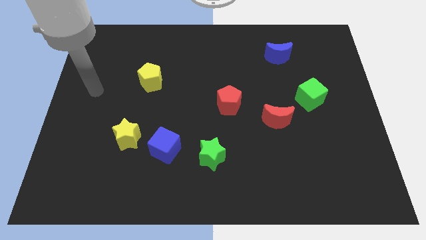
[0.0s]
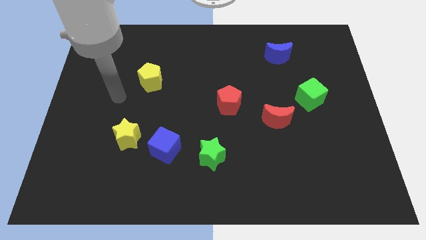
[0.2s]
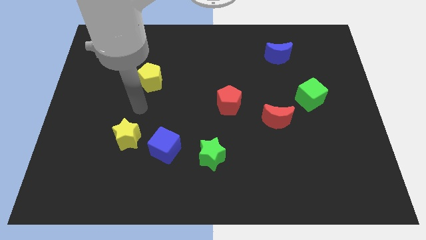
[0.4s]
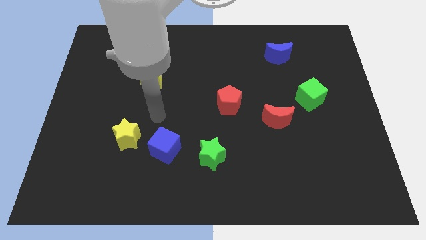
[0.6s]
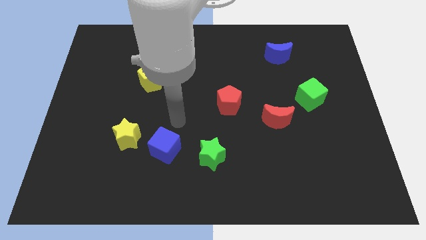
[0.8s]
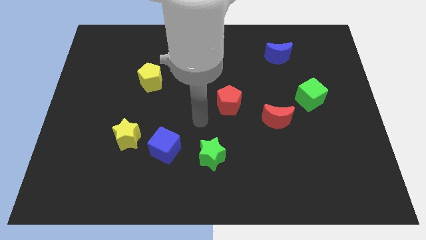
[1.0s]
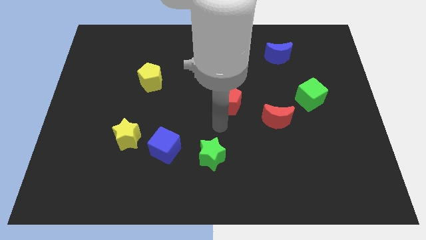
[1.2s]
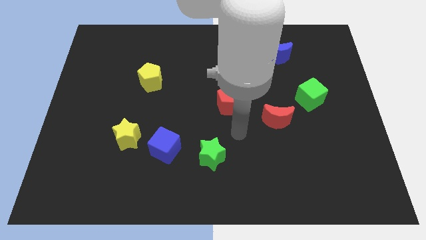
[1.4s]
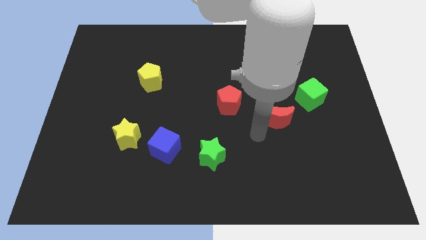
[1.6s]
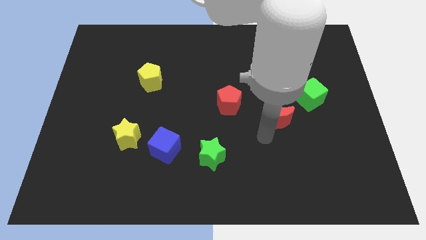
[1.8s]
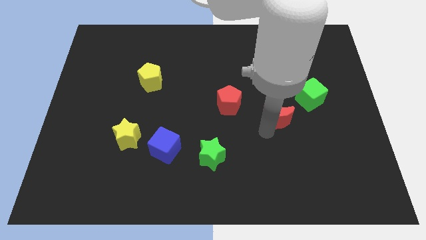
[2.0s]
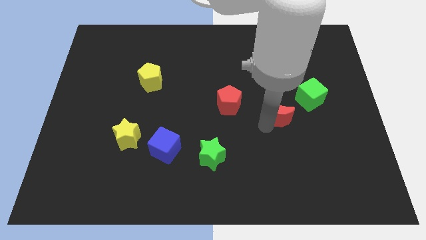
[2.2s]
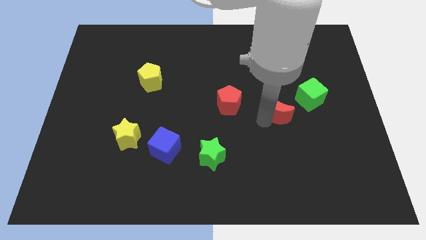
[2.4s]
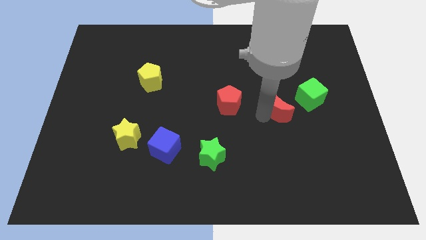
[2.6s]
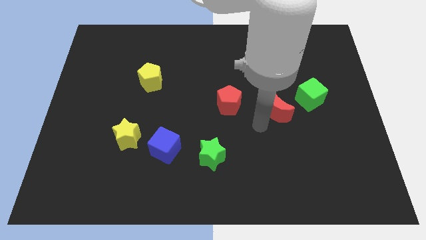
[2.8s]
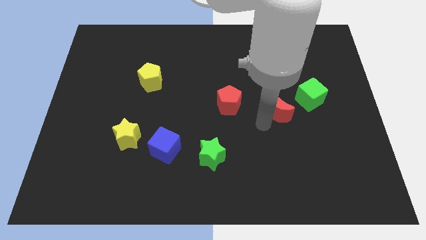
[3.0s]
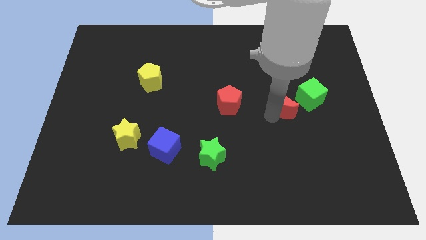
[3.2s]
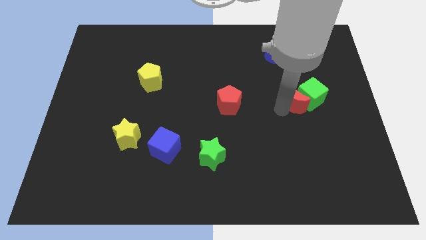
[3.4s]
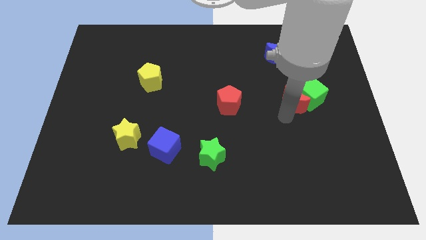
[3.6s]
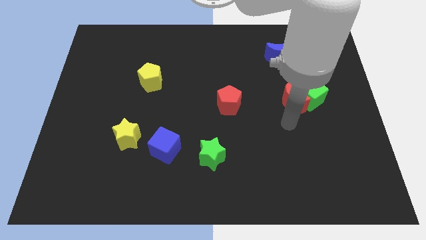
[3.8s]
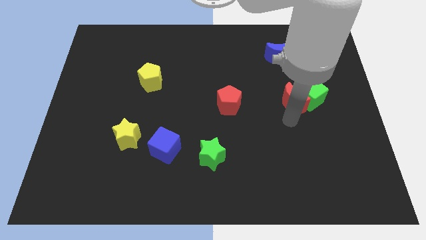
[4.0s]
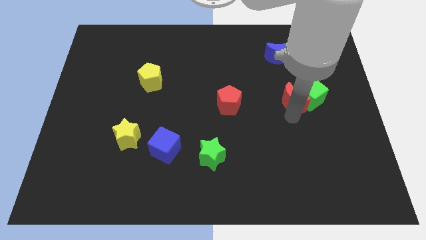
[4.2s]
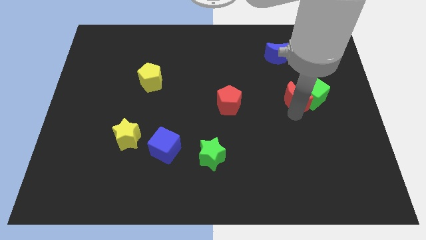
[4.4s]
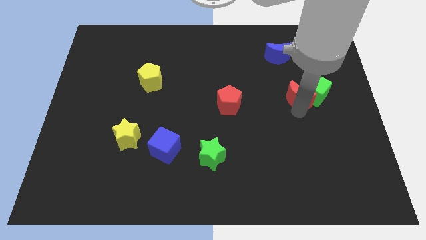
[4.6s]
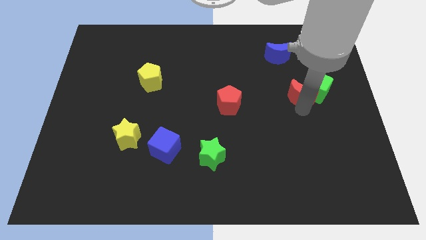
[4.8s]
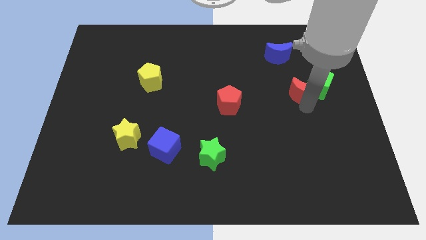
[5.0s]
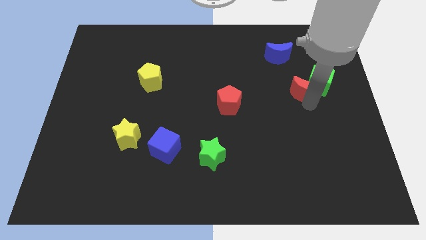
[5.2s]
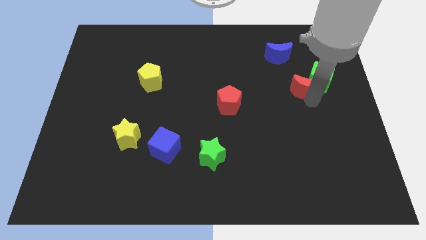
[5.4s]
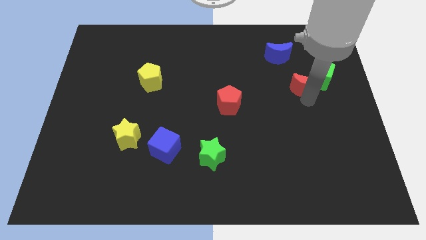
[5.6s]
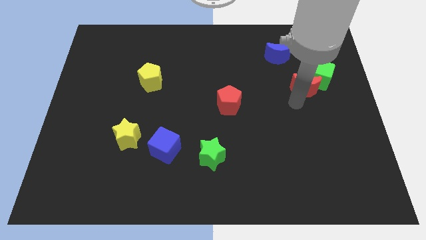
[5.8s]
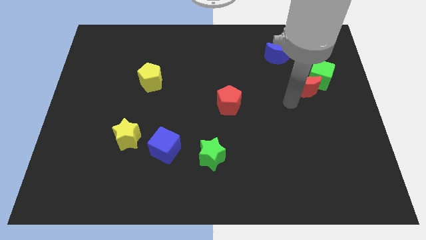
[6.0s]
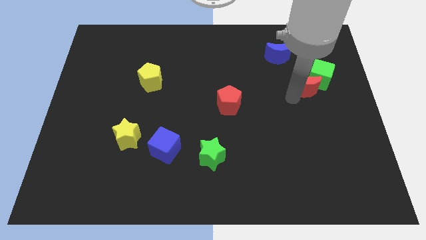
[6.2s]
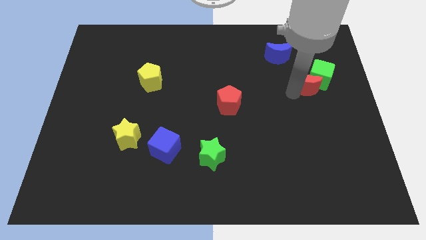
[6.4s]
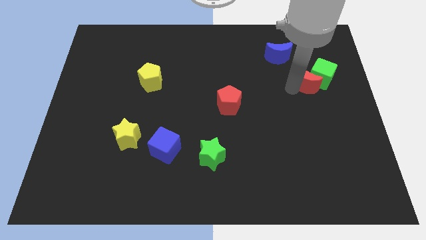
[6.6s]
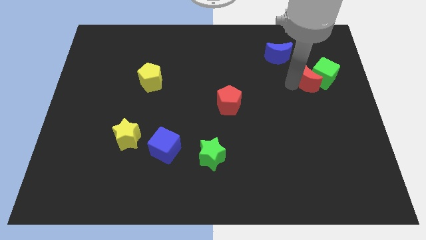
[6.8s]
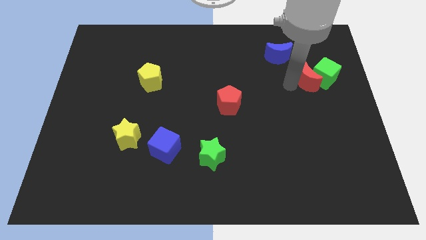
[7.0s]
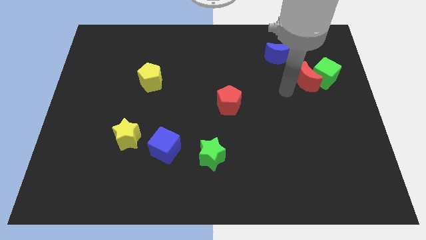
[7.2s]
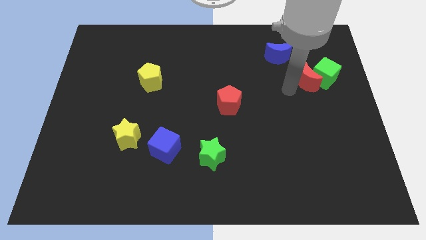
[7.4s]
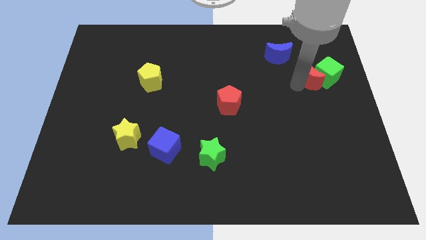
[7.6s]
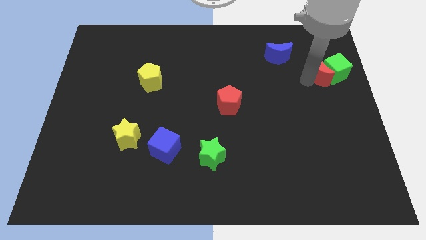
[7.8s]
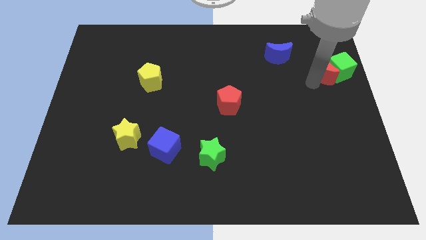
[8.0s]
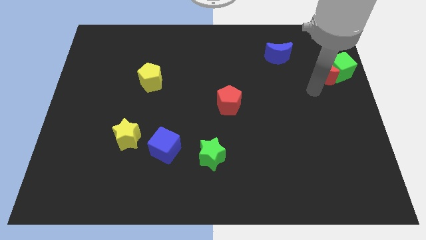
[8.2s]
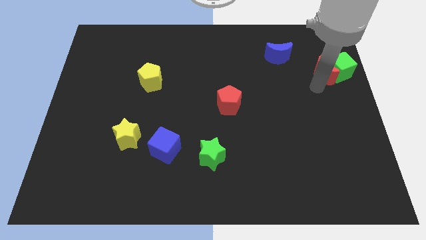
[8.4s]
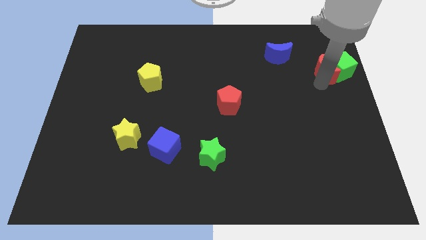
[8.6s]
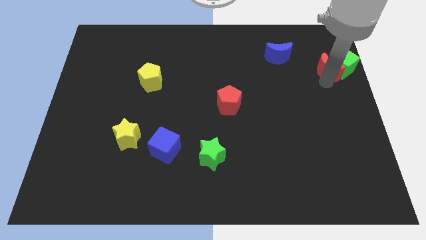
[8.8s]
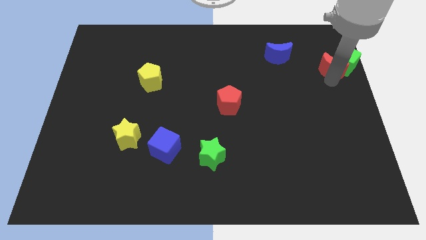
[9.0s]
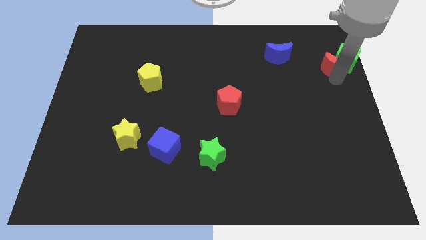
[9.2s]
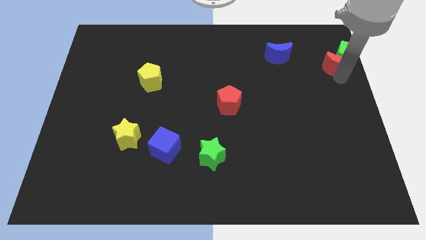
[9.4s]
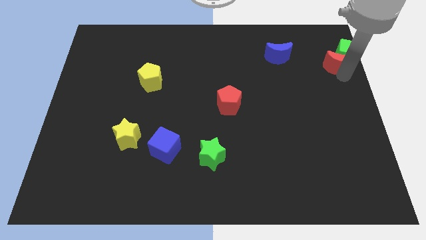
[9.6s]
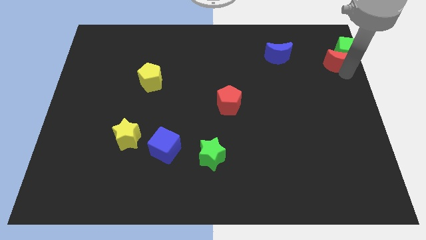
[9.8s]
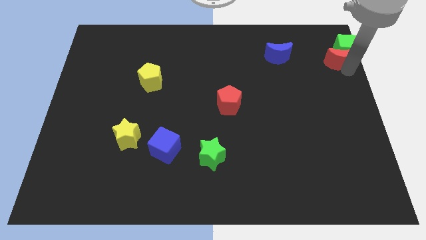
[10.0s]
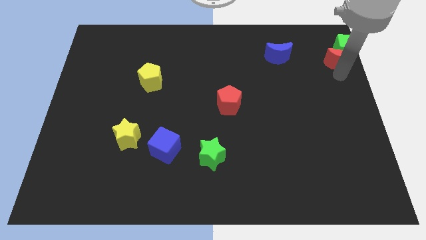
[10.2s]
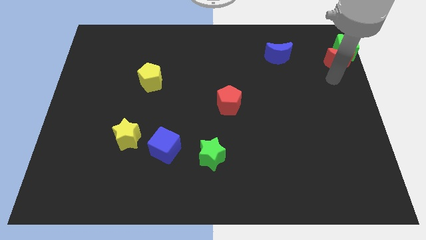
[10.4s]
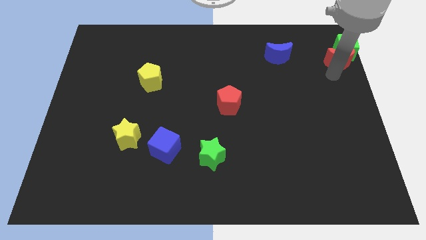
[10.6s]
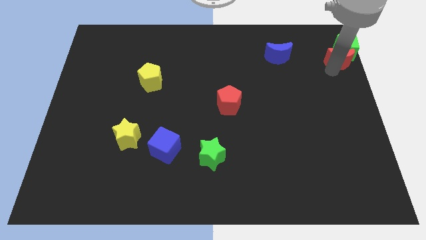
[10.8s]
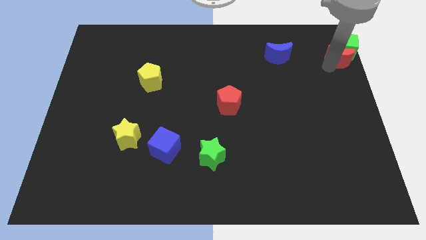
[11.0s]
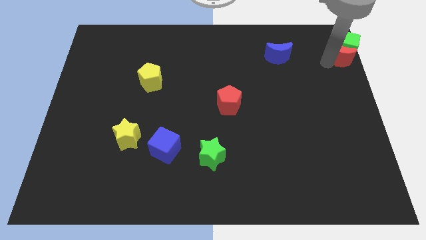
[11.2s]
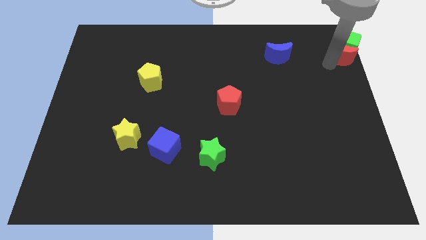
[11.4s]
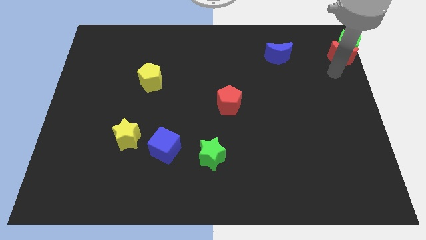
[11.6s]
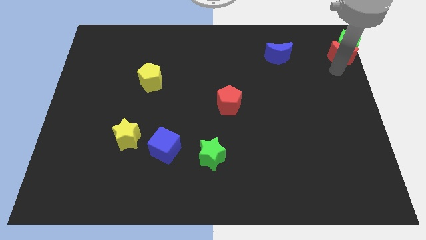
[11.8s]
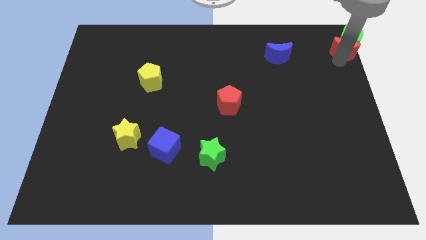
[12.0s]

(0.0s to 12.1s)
slide the red moon to the upper right corner

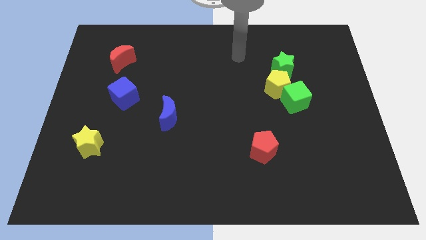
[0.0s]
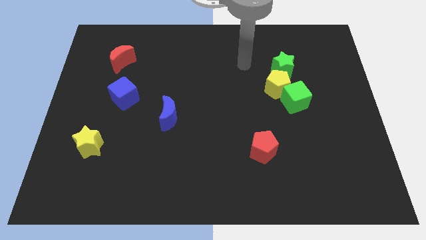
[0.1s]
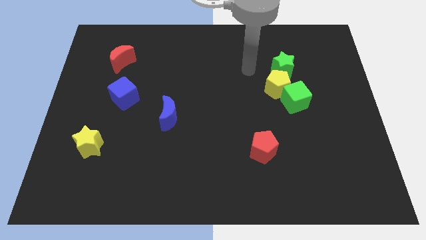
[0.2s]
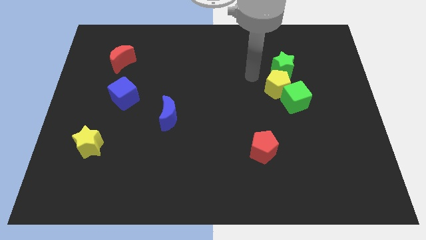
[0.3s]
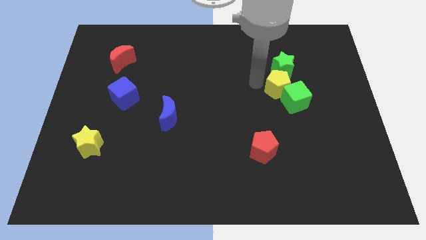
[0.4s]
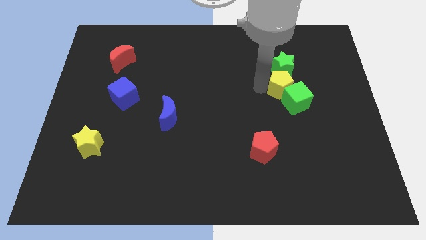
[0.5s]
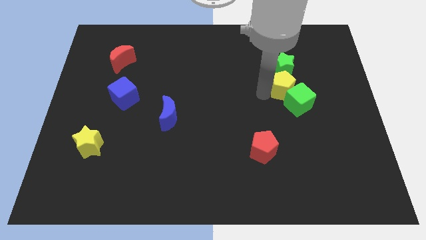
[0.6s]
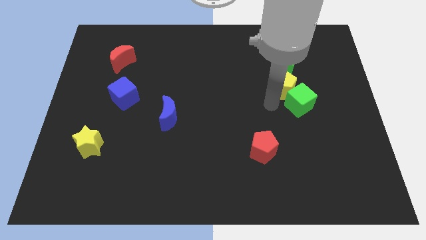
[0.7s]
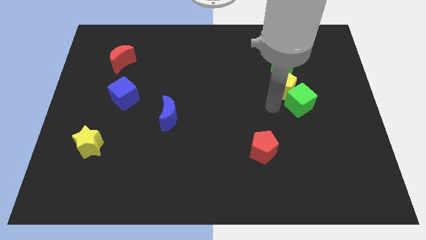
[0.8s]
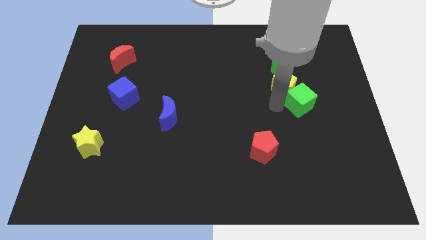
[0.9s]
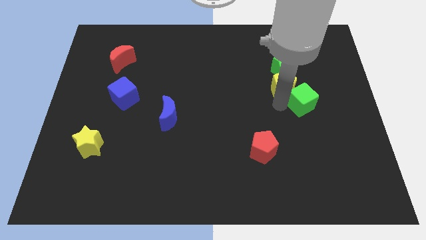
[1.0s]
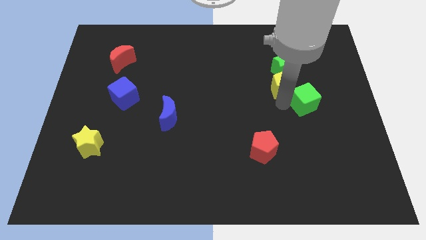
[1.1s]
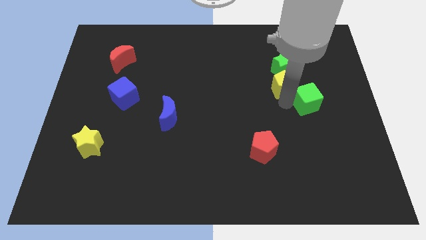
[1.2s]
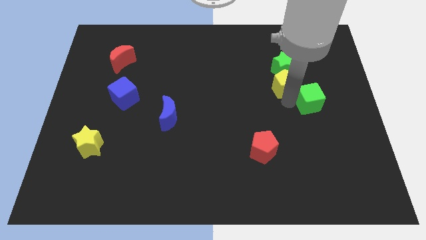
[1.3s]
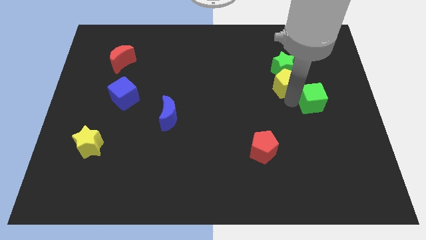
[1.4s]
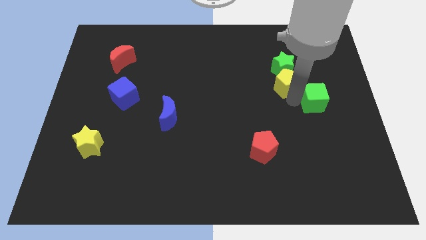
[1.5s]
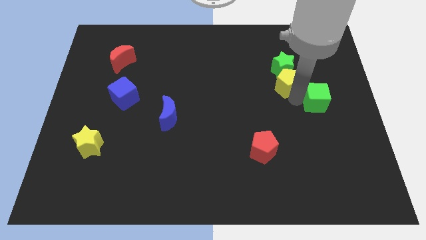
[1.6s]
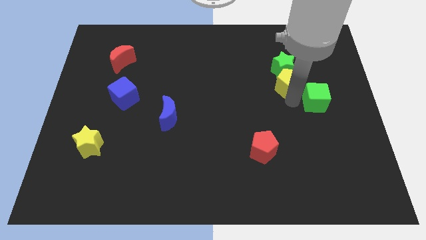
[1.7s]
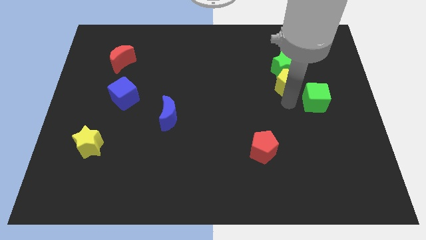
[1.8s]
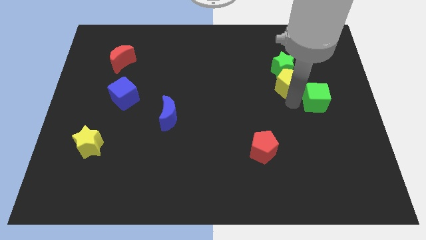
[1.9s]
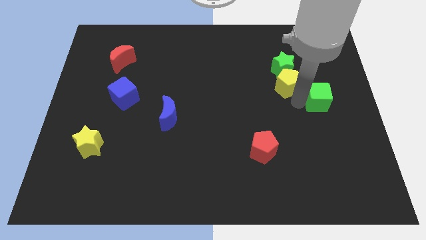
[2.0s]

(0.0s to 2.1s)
move the green cube to the right side
